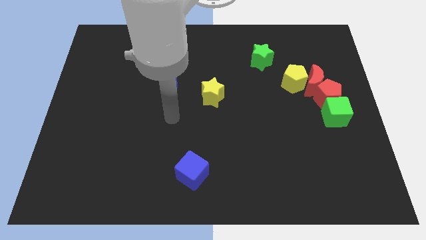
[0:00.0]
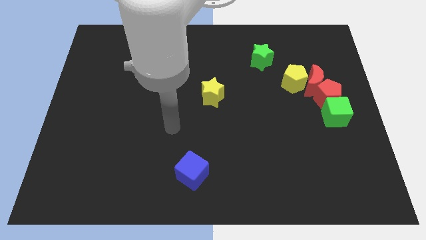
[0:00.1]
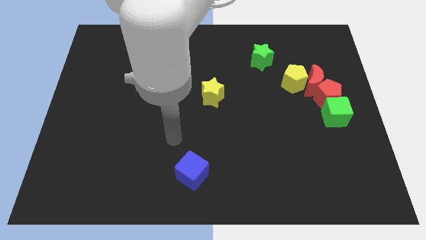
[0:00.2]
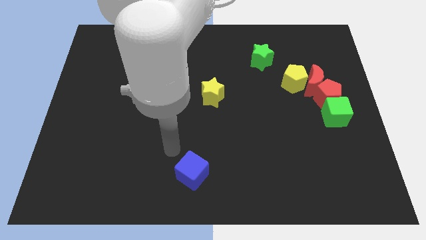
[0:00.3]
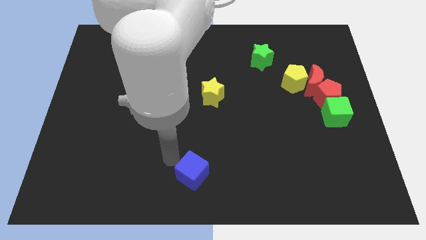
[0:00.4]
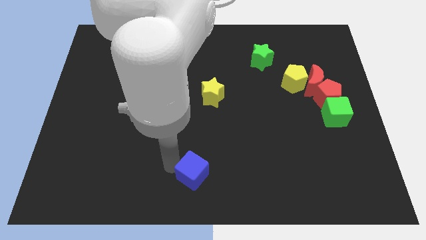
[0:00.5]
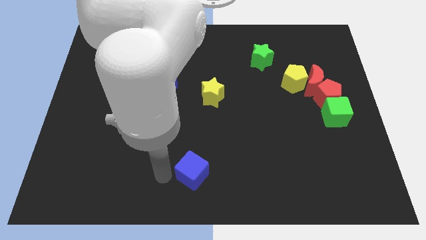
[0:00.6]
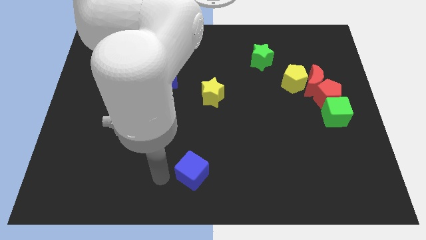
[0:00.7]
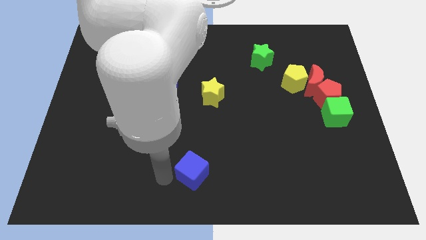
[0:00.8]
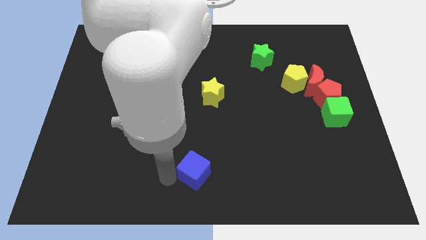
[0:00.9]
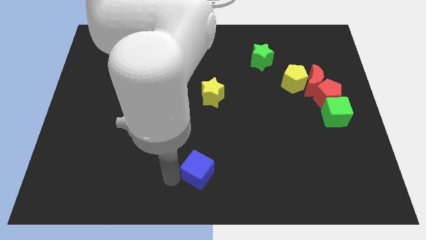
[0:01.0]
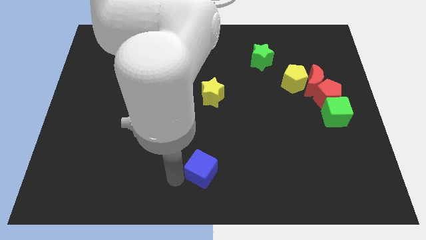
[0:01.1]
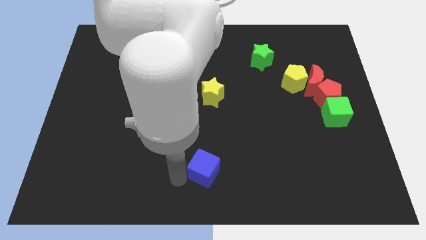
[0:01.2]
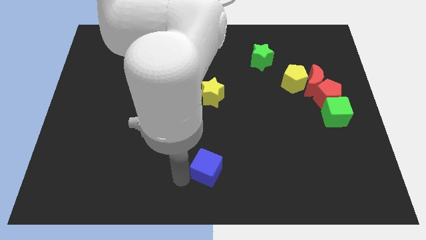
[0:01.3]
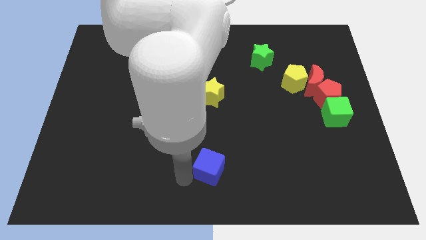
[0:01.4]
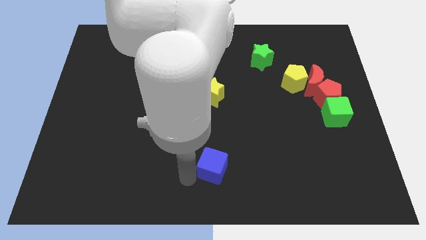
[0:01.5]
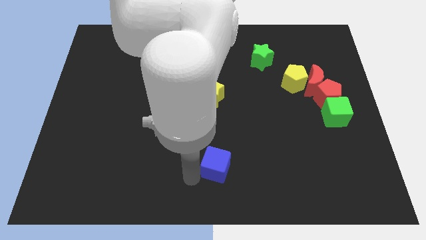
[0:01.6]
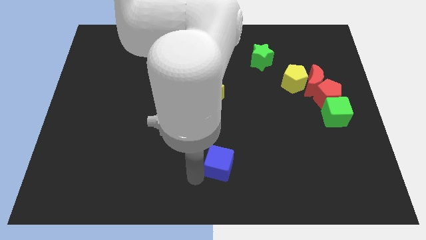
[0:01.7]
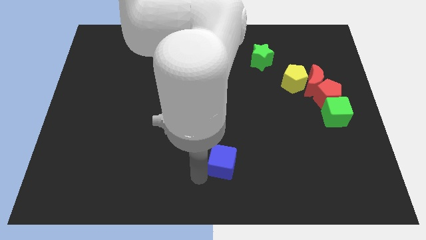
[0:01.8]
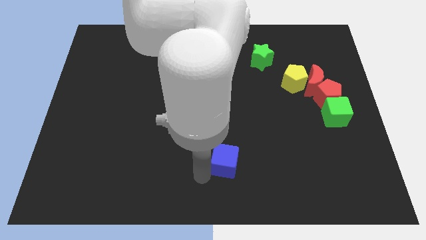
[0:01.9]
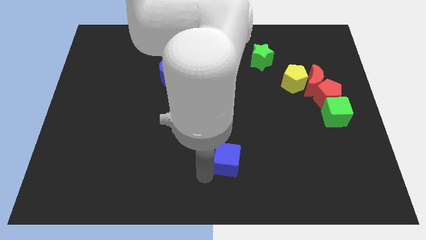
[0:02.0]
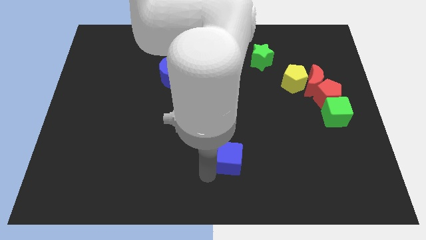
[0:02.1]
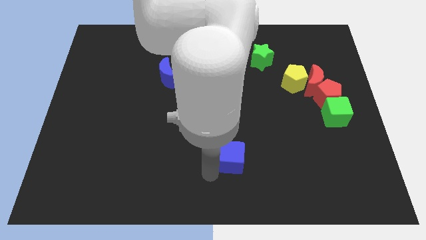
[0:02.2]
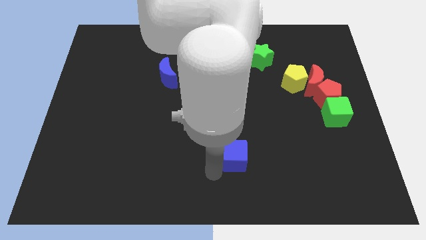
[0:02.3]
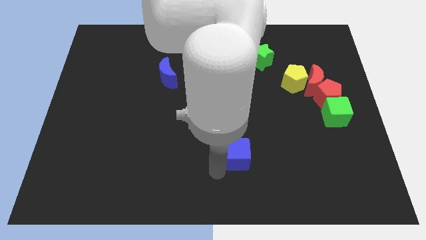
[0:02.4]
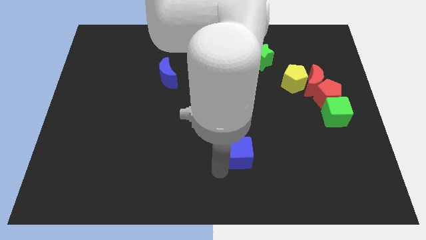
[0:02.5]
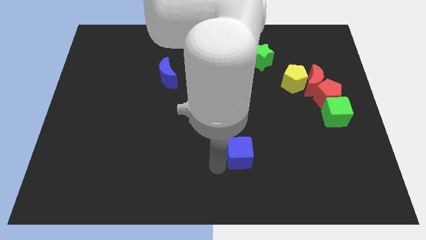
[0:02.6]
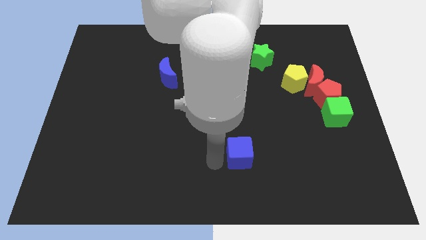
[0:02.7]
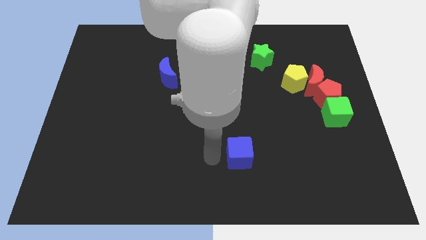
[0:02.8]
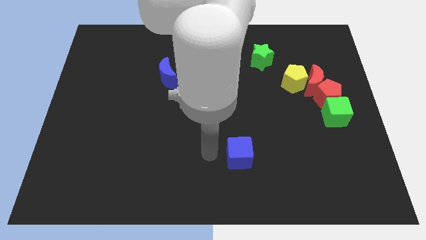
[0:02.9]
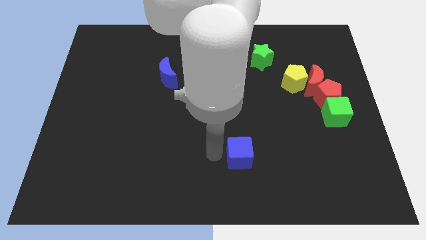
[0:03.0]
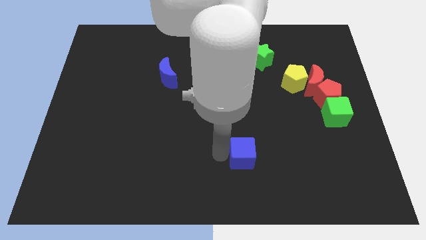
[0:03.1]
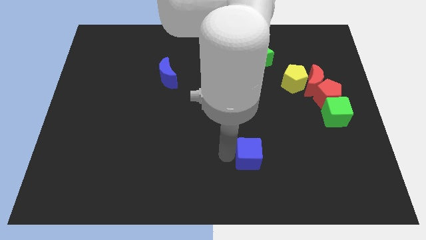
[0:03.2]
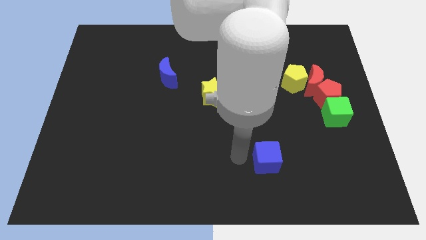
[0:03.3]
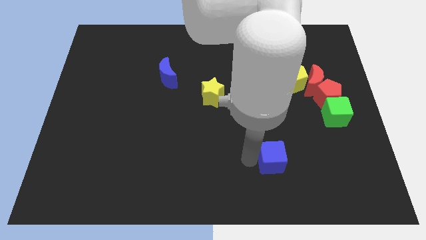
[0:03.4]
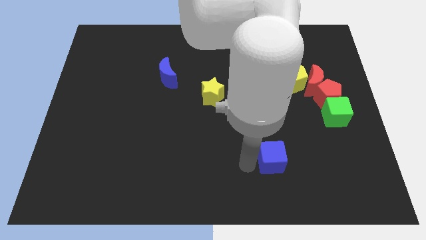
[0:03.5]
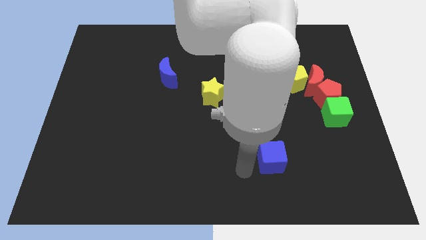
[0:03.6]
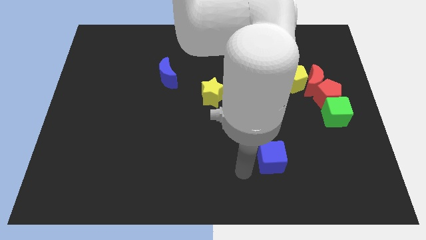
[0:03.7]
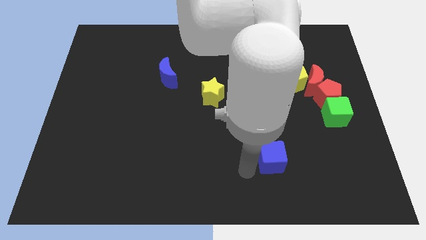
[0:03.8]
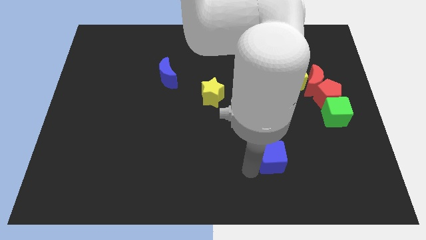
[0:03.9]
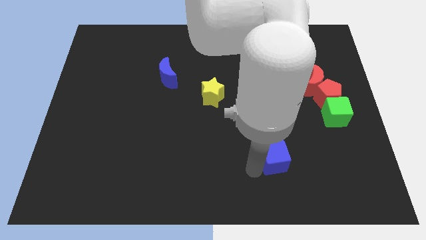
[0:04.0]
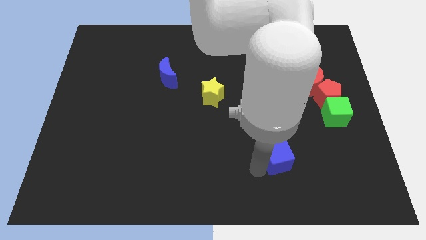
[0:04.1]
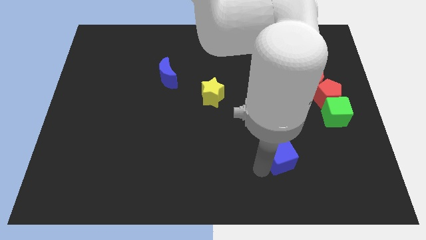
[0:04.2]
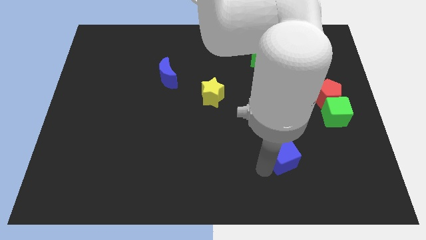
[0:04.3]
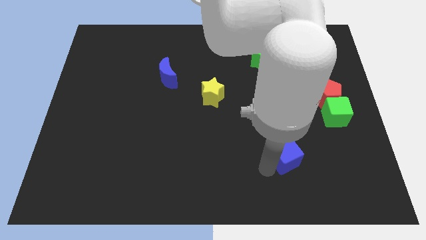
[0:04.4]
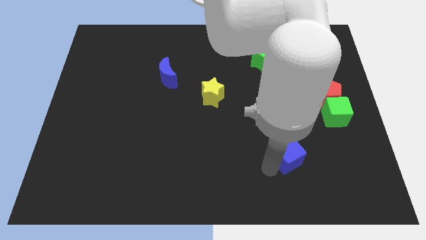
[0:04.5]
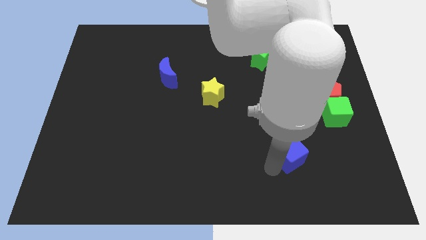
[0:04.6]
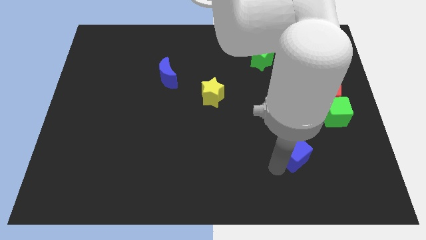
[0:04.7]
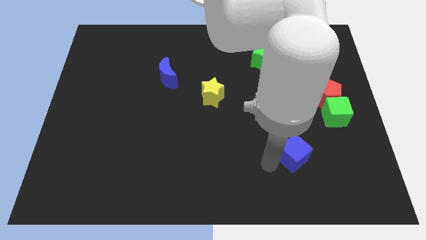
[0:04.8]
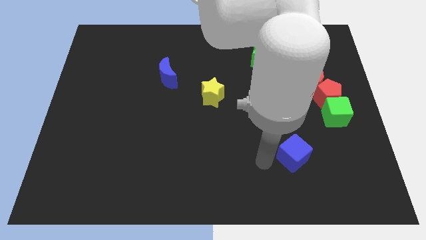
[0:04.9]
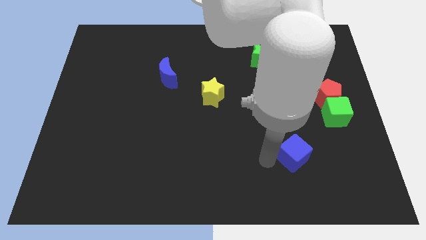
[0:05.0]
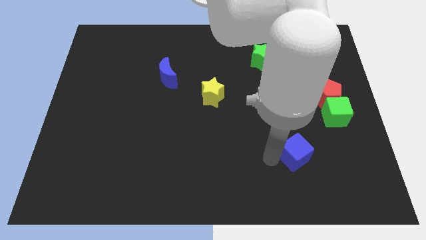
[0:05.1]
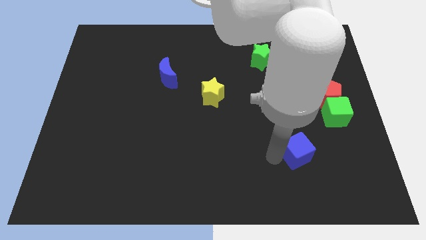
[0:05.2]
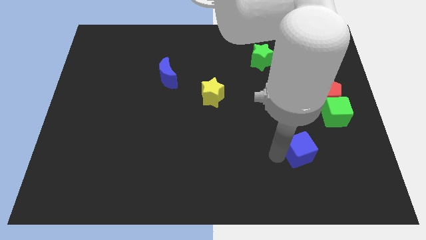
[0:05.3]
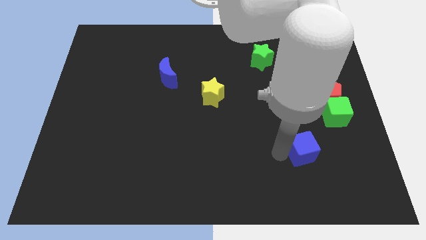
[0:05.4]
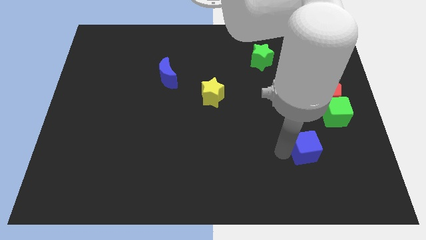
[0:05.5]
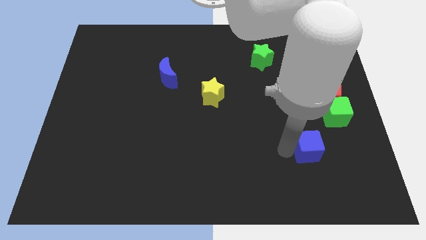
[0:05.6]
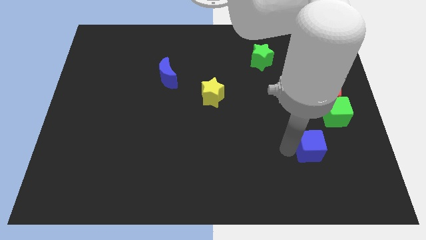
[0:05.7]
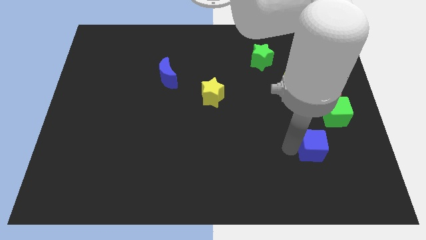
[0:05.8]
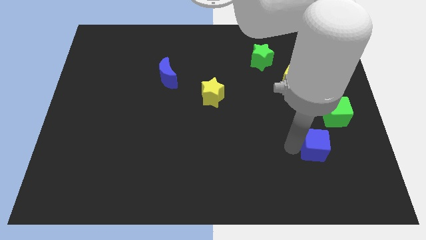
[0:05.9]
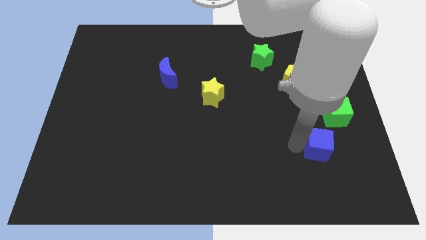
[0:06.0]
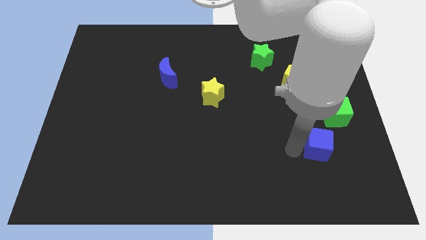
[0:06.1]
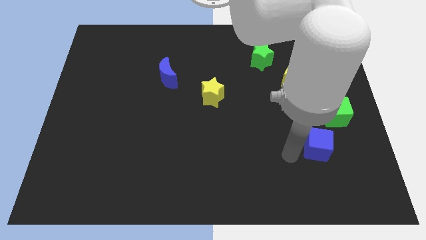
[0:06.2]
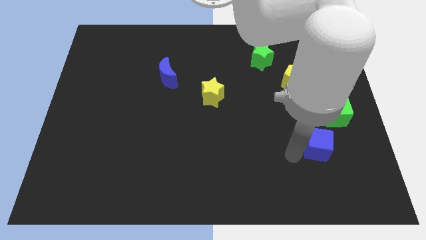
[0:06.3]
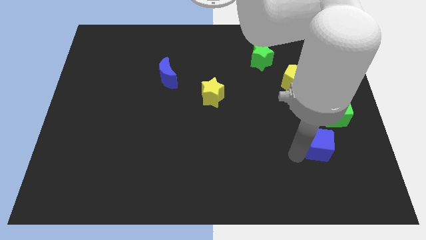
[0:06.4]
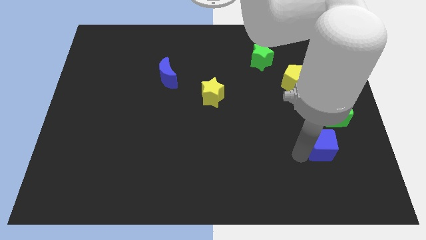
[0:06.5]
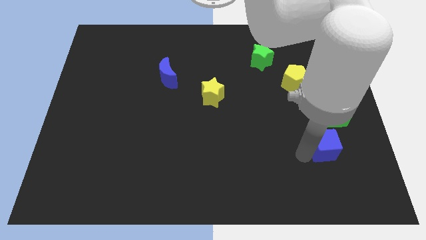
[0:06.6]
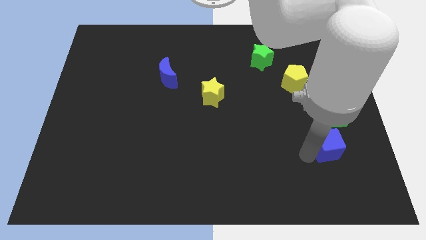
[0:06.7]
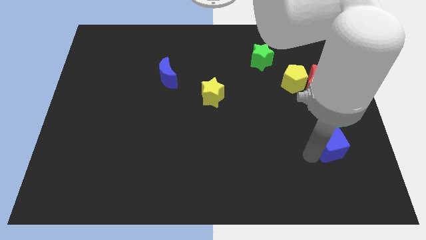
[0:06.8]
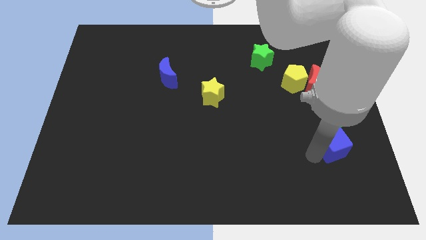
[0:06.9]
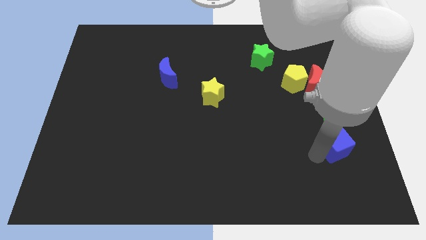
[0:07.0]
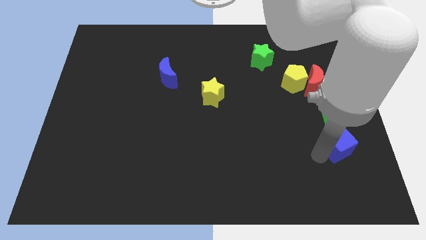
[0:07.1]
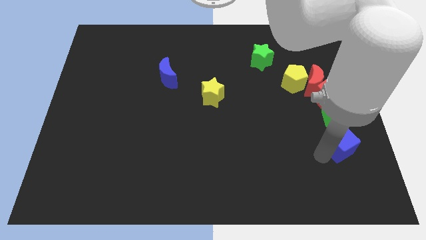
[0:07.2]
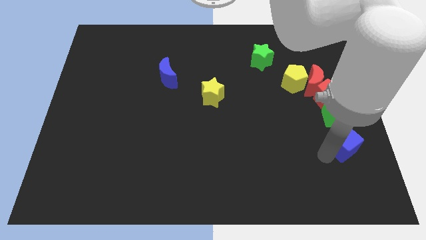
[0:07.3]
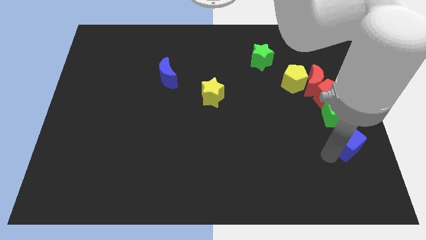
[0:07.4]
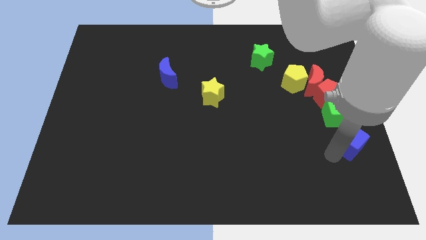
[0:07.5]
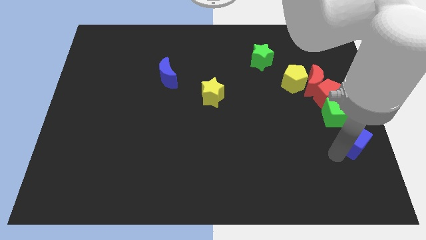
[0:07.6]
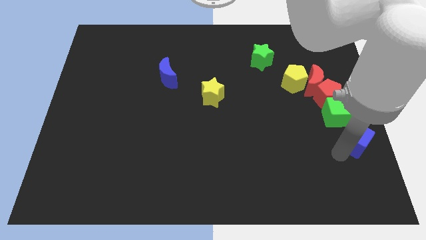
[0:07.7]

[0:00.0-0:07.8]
push the blue cube to the right side
